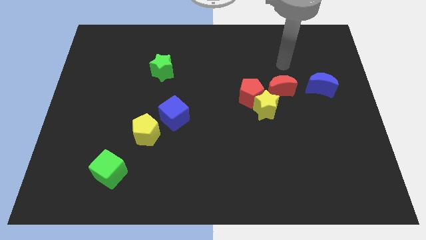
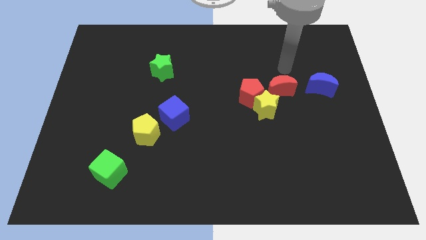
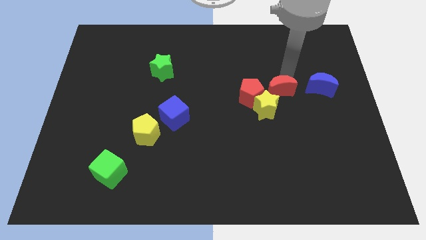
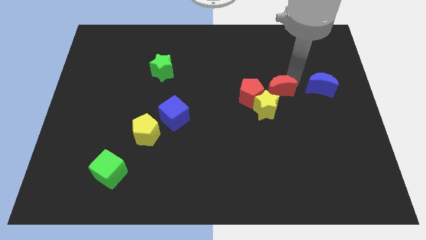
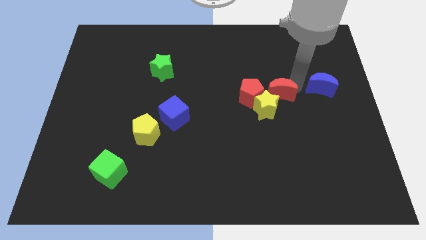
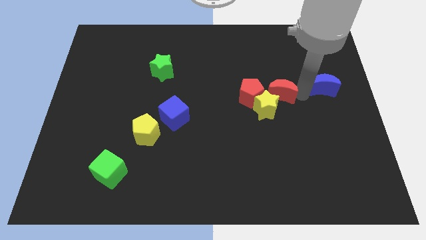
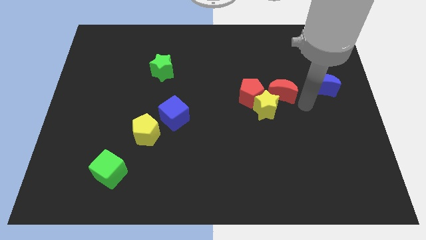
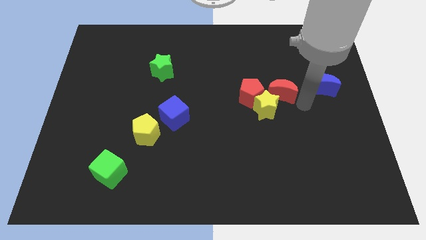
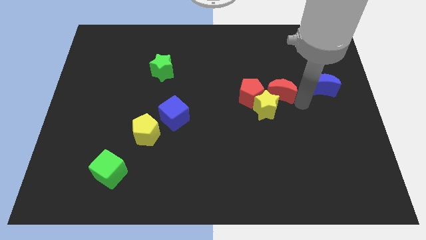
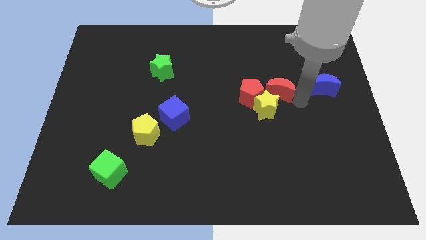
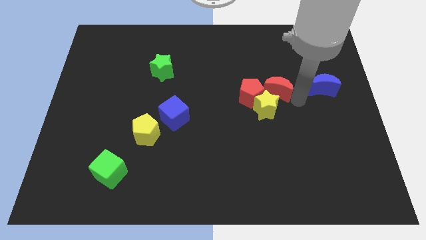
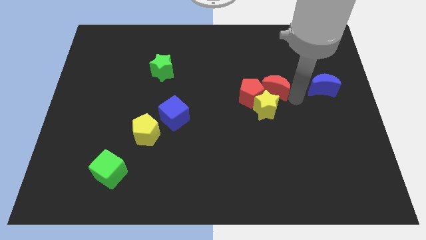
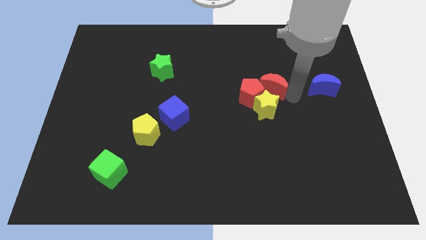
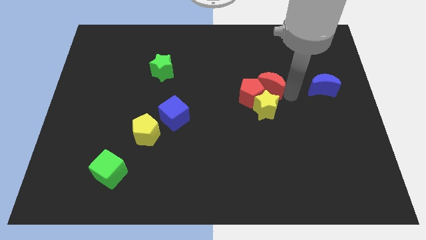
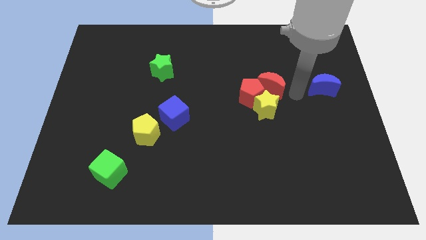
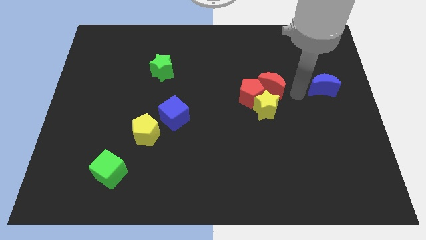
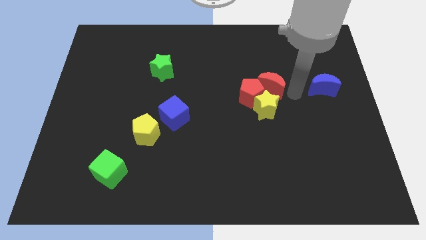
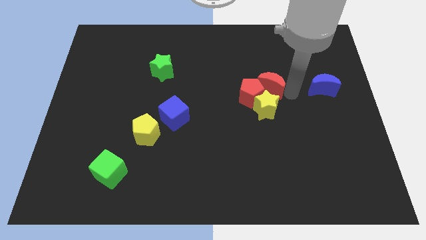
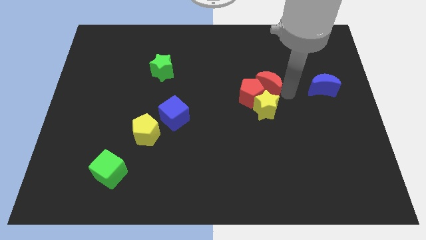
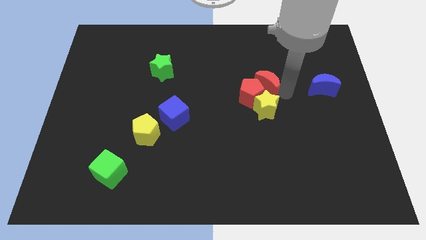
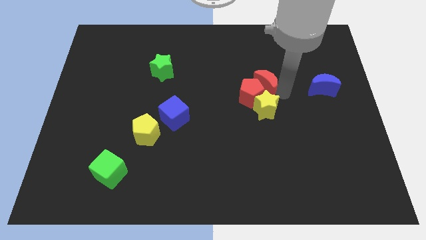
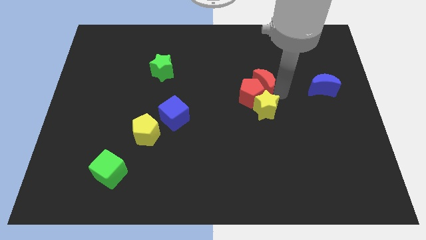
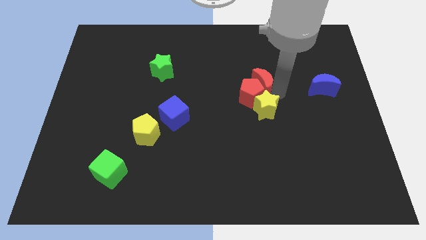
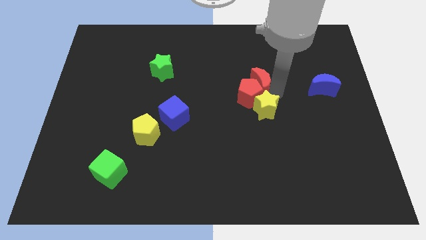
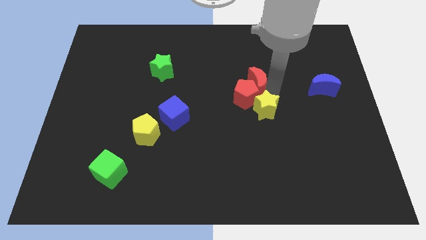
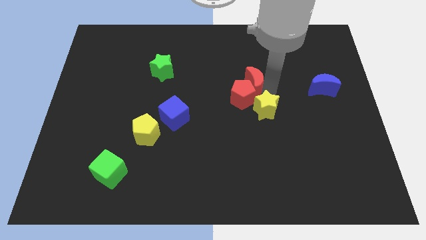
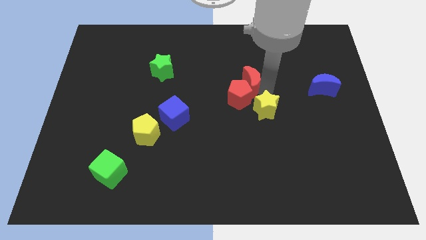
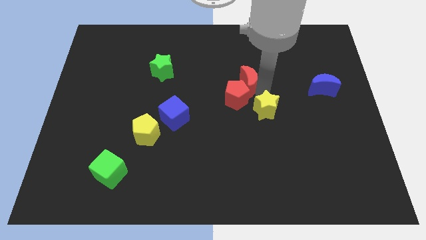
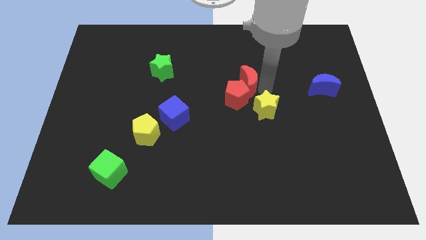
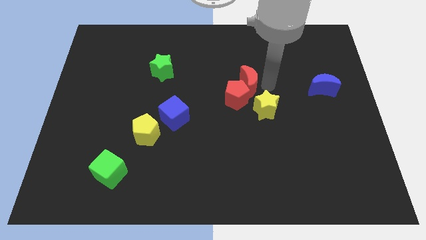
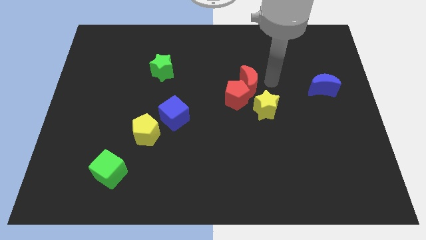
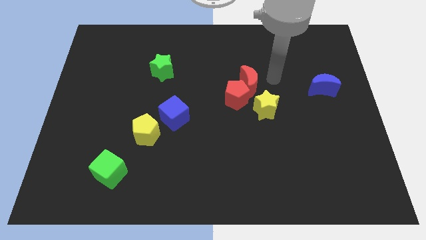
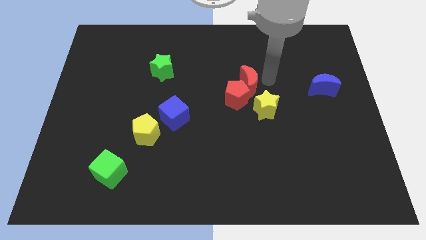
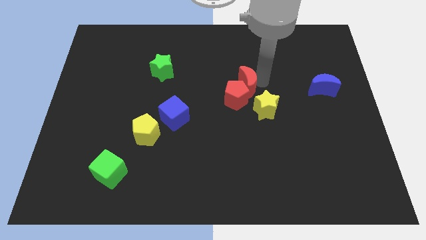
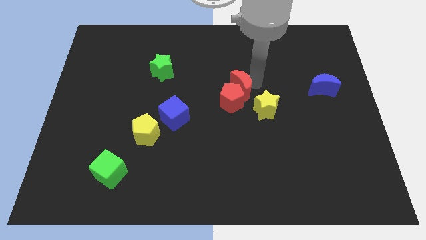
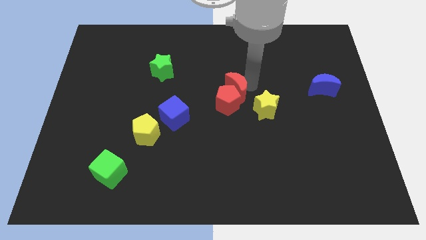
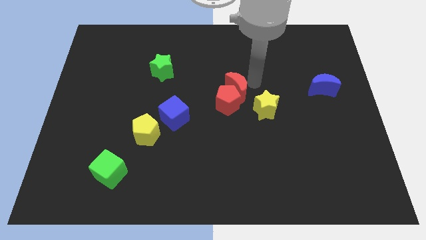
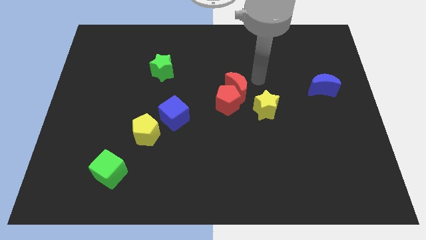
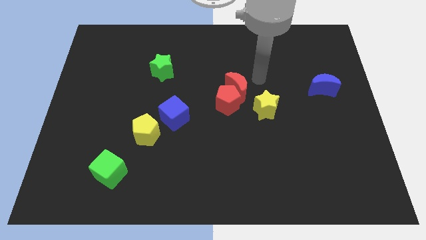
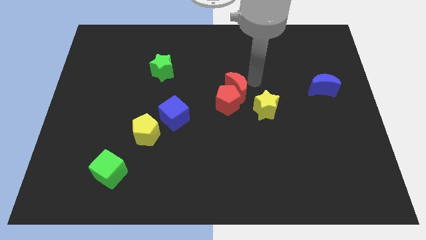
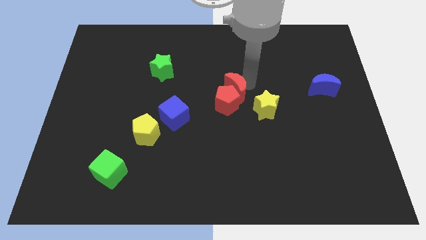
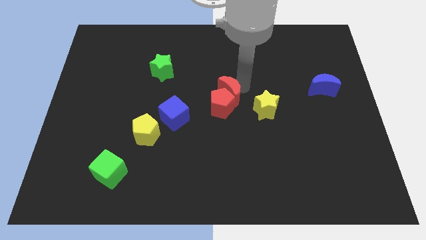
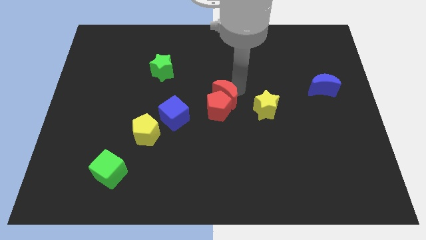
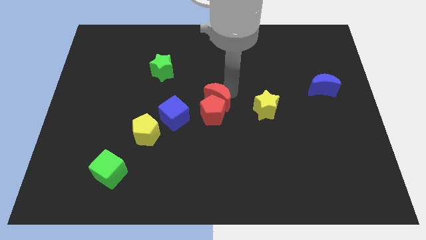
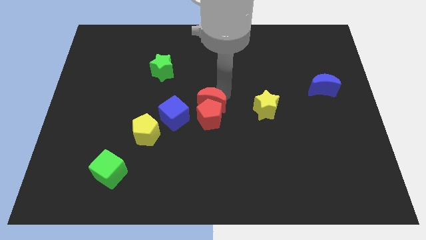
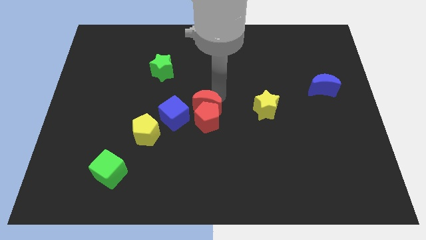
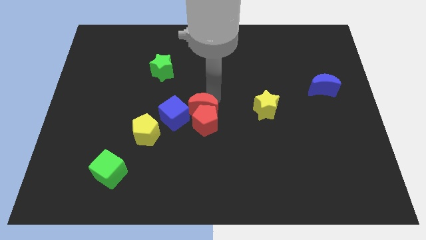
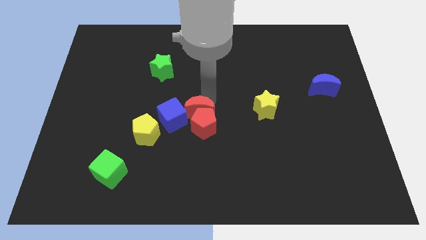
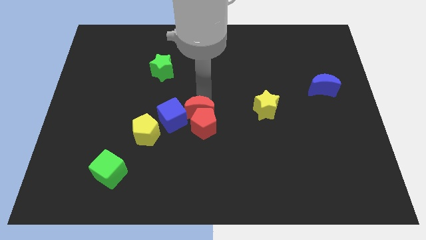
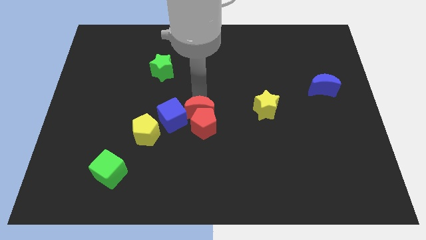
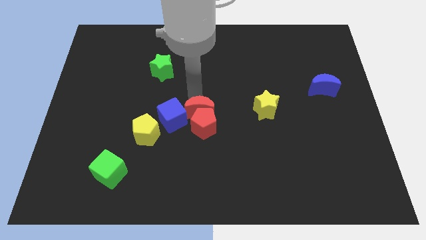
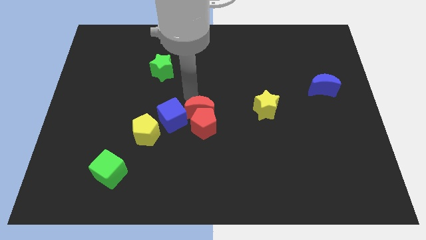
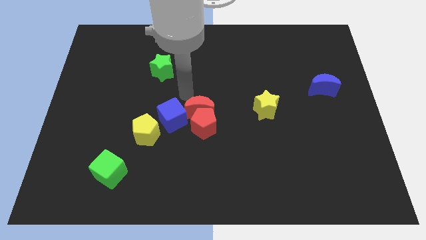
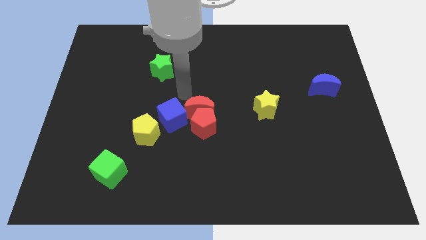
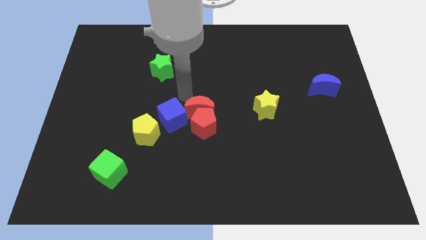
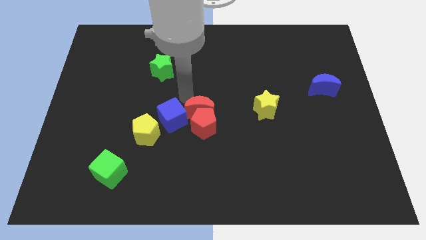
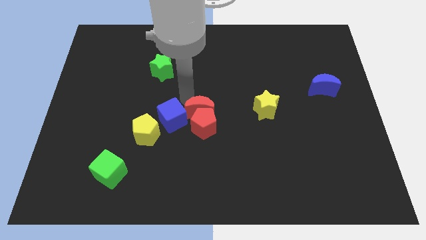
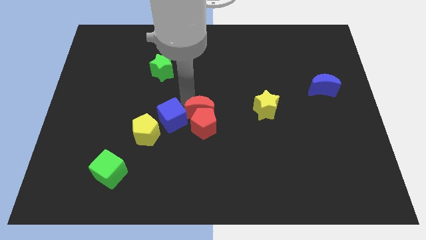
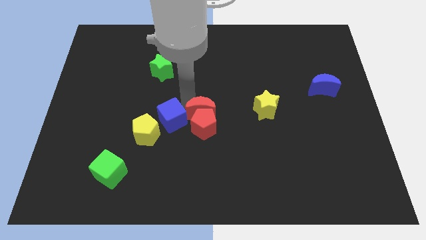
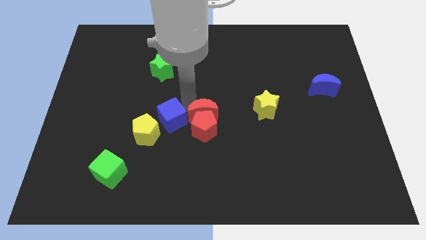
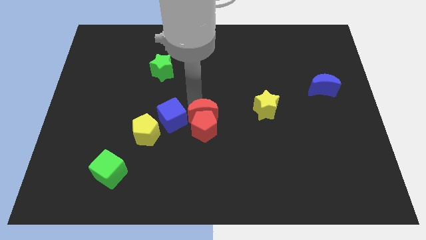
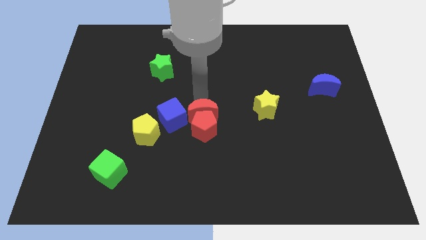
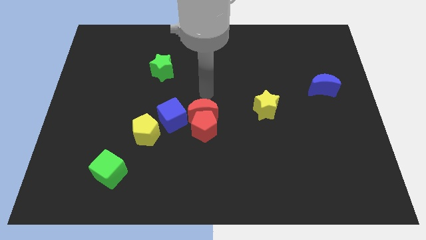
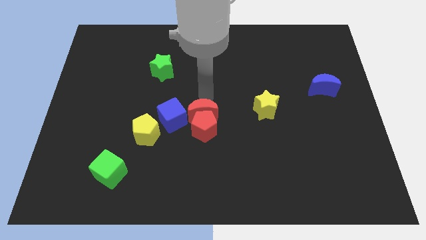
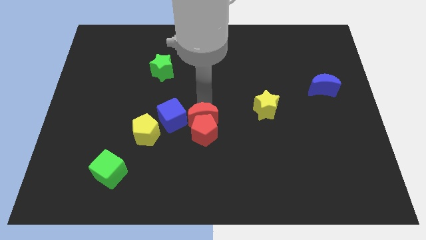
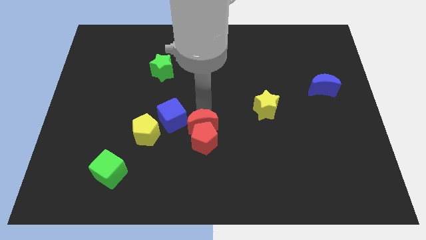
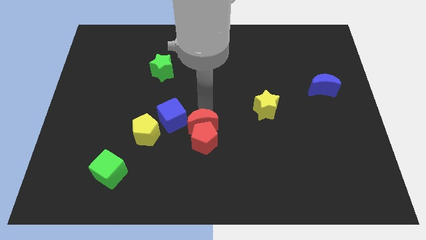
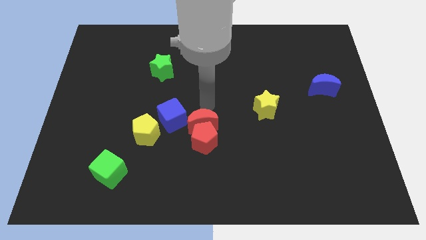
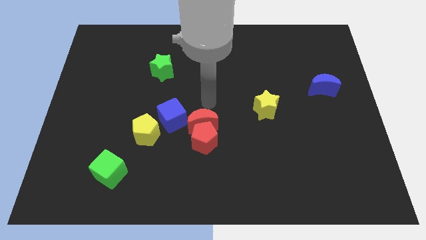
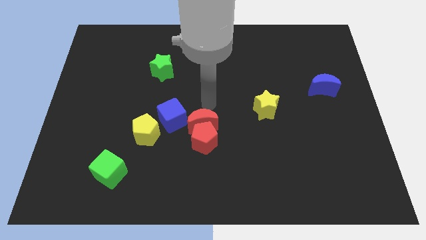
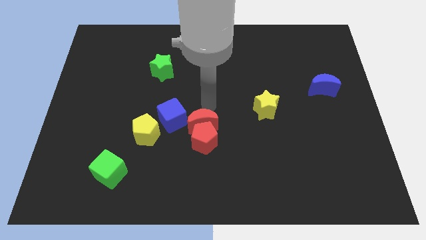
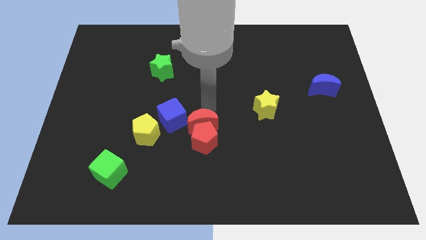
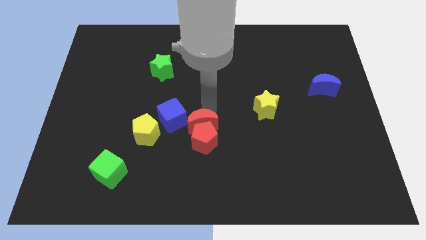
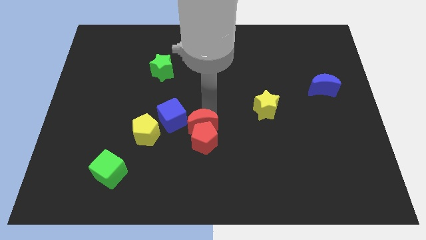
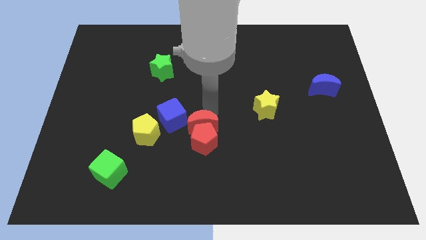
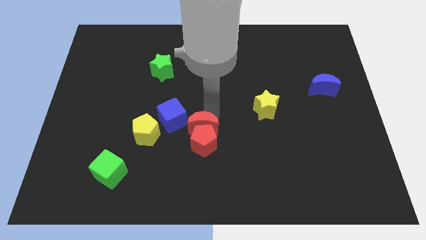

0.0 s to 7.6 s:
slide the red moon downwards and then left

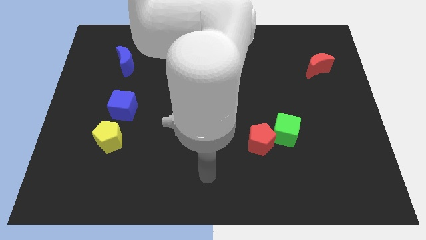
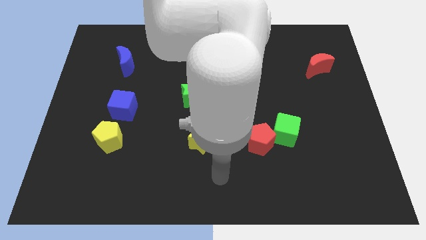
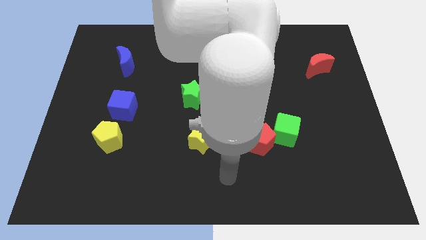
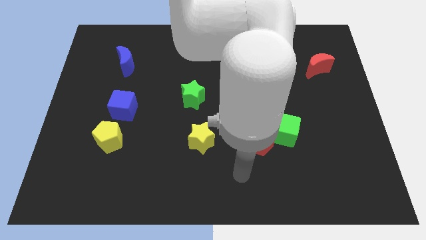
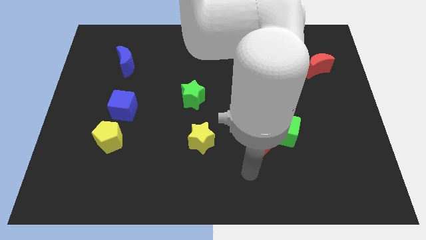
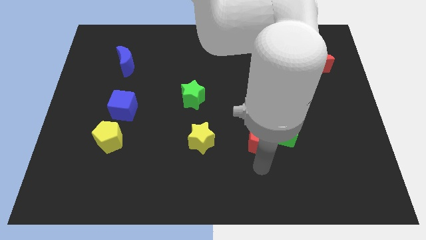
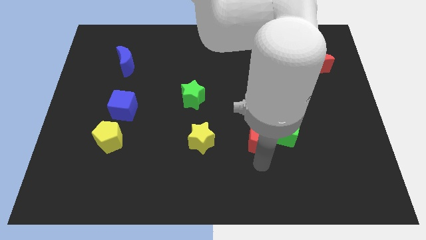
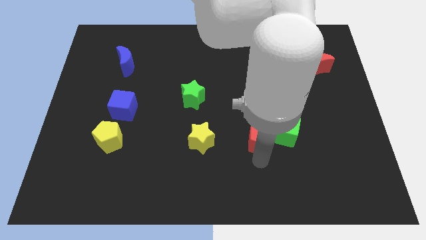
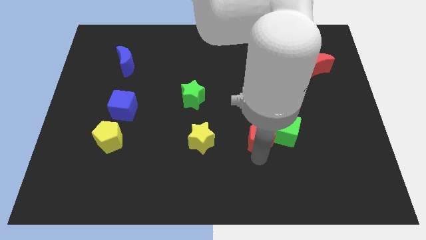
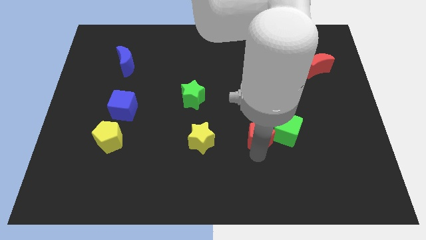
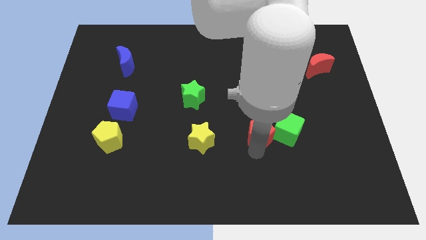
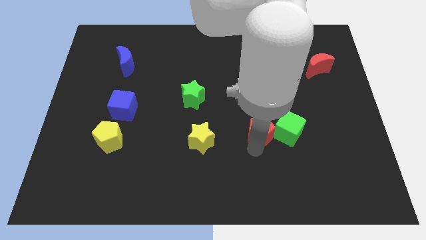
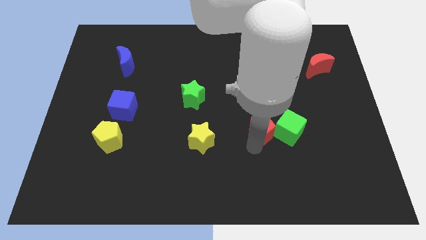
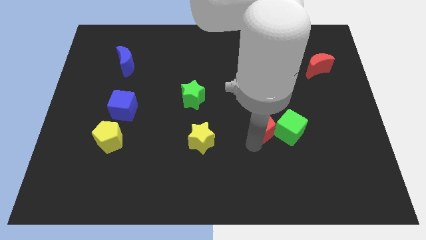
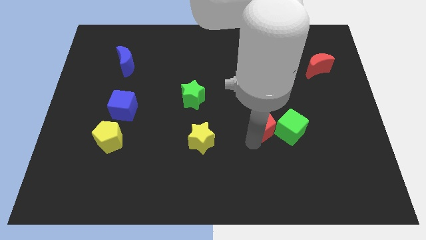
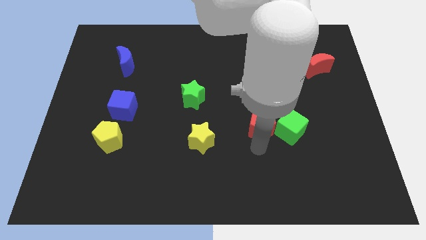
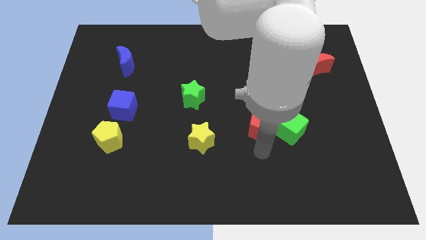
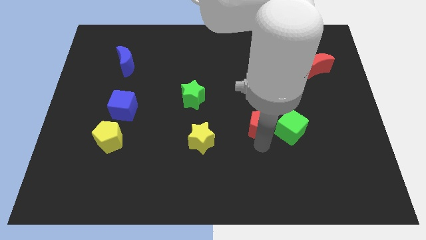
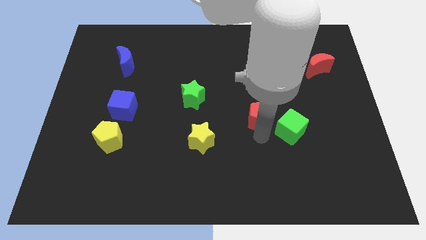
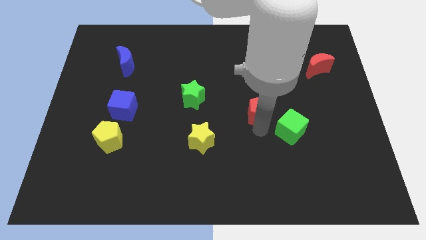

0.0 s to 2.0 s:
slightly move the red pentagon upwards
